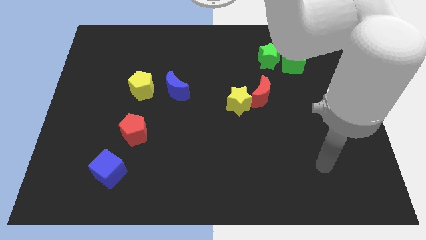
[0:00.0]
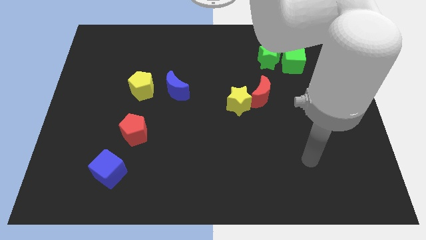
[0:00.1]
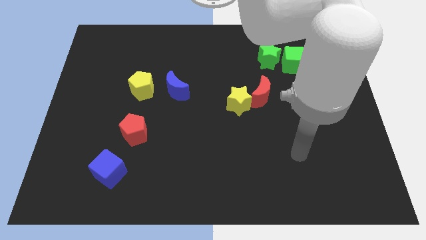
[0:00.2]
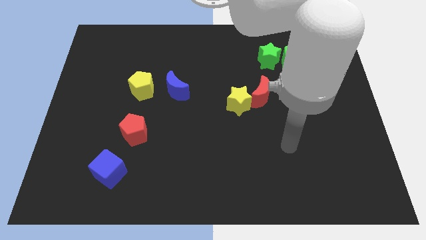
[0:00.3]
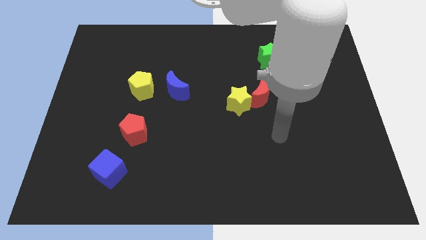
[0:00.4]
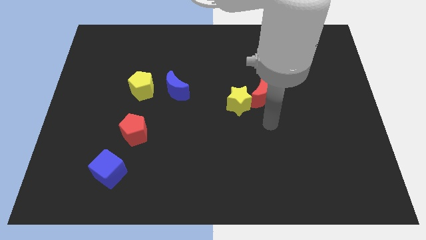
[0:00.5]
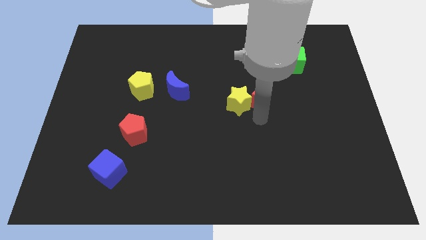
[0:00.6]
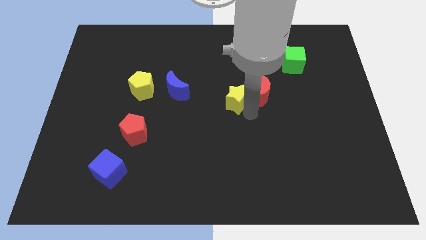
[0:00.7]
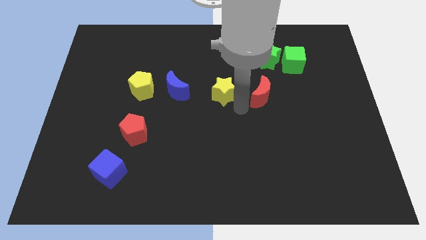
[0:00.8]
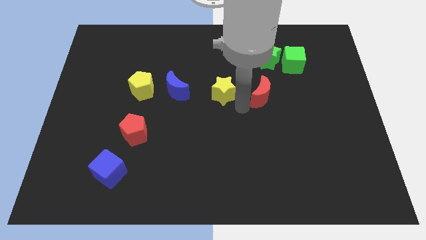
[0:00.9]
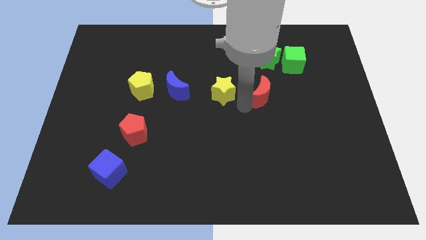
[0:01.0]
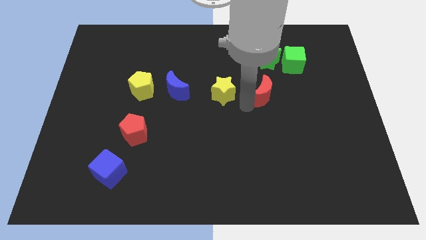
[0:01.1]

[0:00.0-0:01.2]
separate the red moon from the yellow star

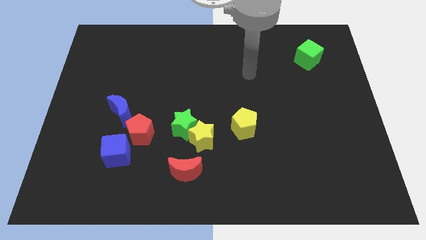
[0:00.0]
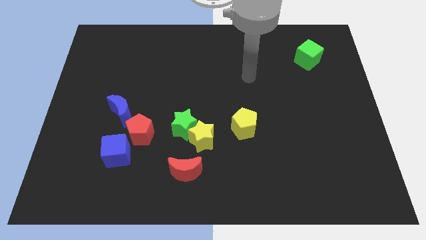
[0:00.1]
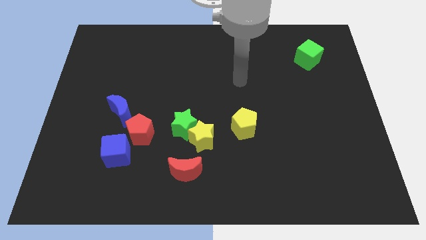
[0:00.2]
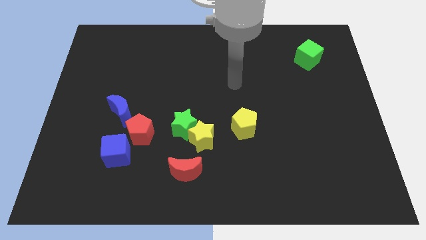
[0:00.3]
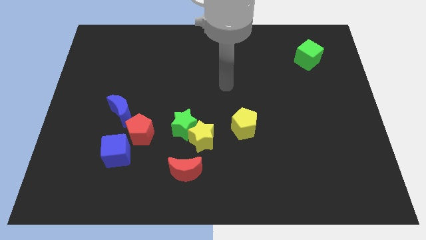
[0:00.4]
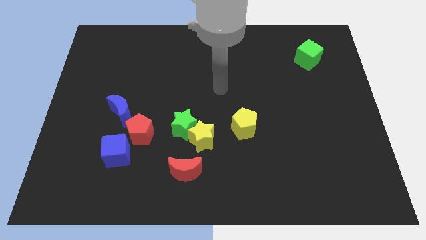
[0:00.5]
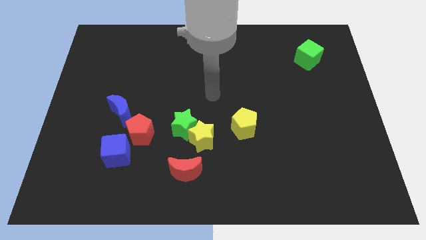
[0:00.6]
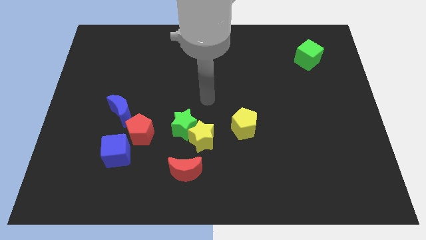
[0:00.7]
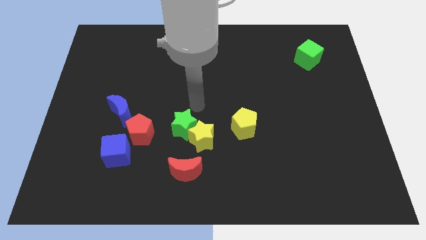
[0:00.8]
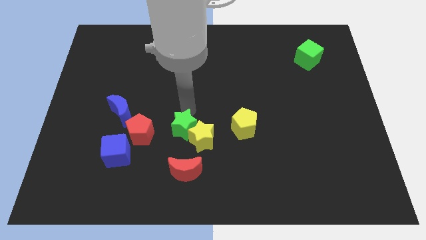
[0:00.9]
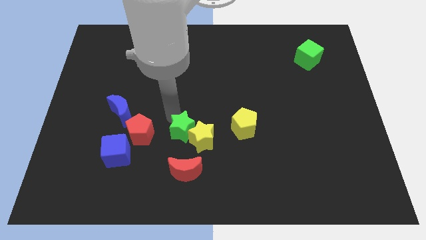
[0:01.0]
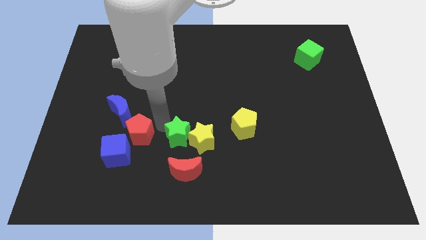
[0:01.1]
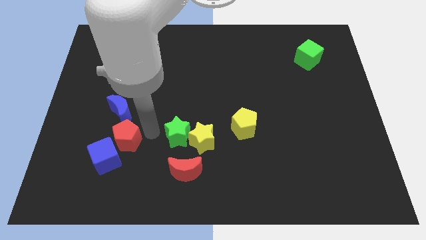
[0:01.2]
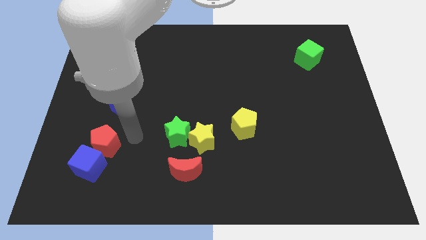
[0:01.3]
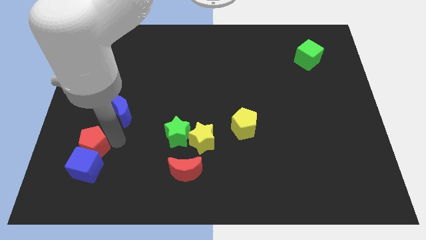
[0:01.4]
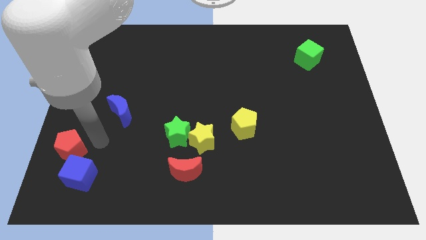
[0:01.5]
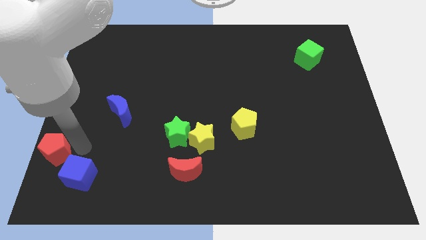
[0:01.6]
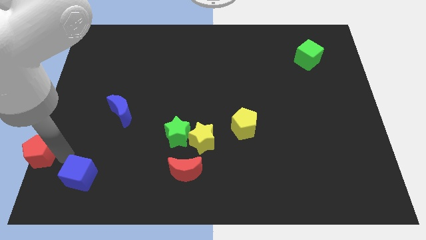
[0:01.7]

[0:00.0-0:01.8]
pull the blue cube apart from the red pentagon

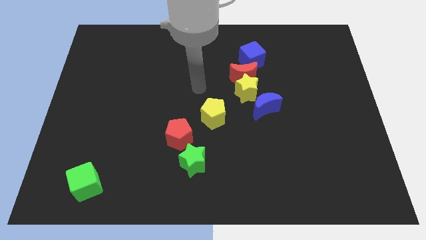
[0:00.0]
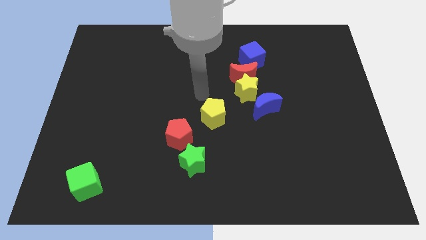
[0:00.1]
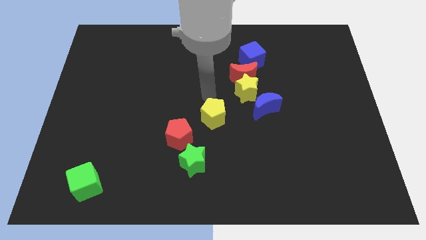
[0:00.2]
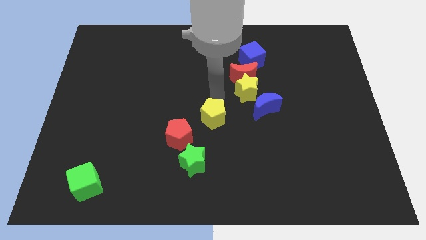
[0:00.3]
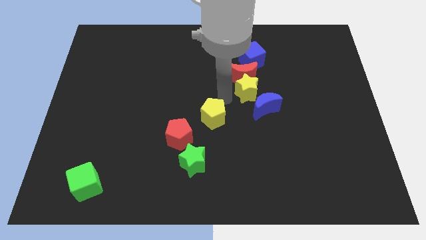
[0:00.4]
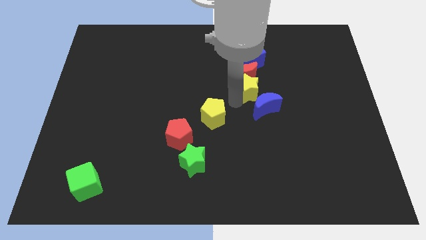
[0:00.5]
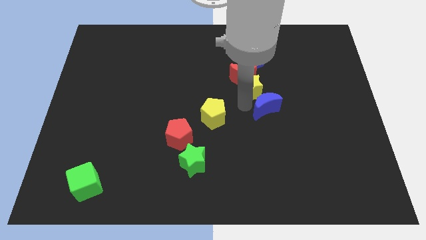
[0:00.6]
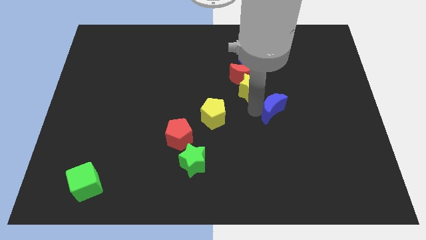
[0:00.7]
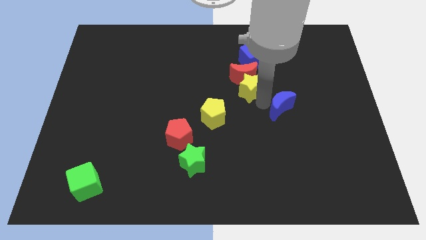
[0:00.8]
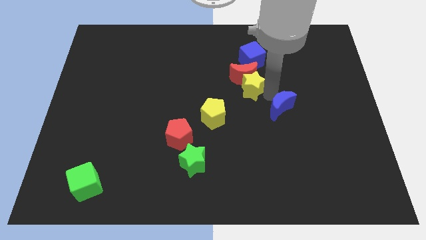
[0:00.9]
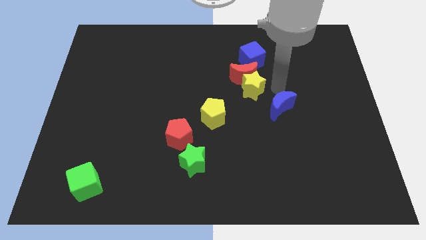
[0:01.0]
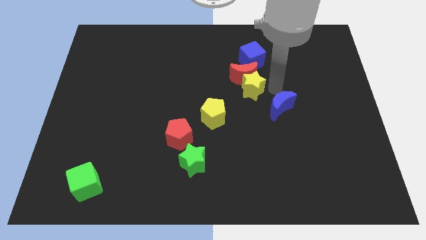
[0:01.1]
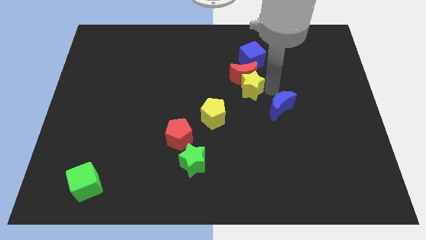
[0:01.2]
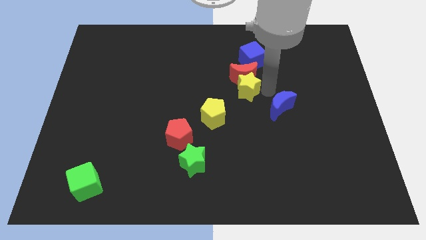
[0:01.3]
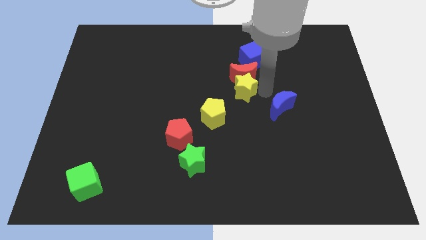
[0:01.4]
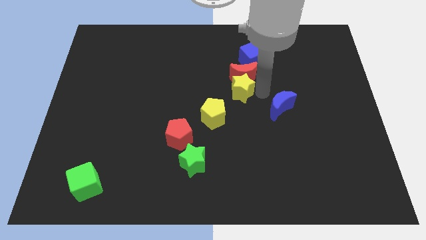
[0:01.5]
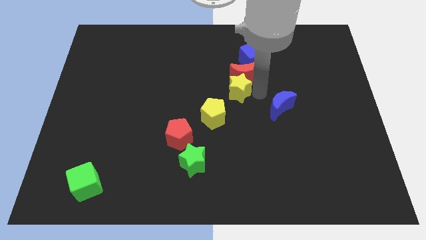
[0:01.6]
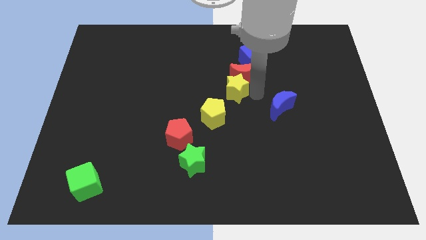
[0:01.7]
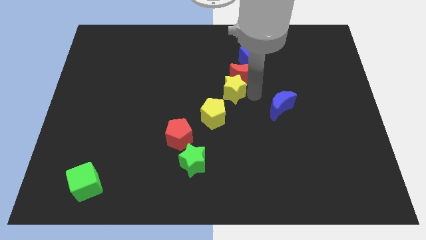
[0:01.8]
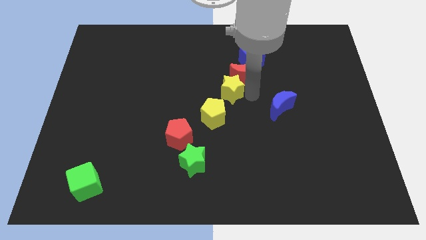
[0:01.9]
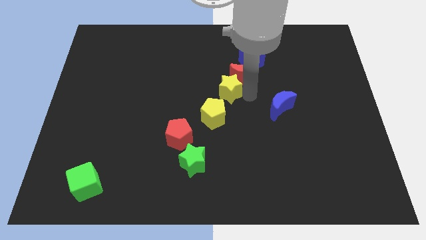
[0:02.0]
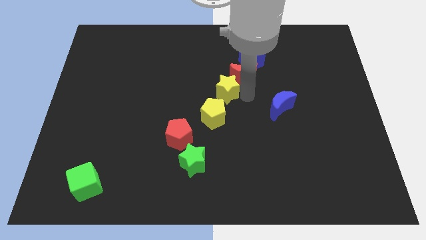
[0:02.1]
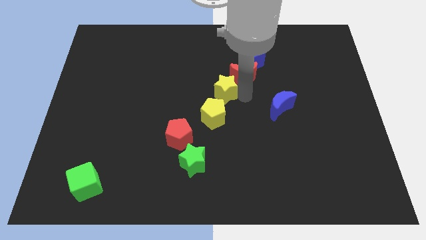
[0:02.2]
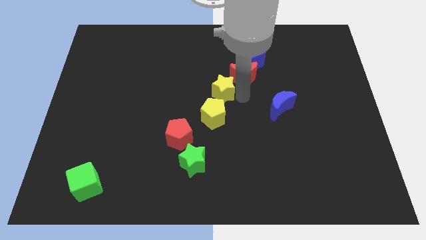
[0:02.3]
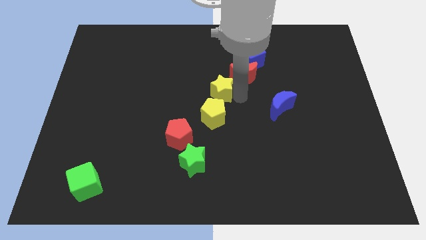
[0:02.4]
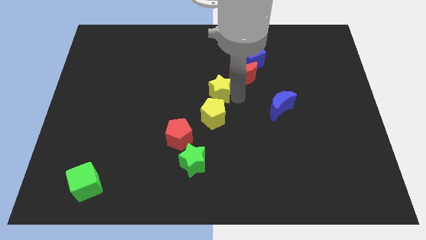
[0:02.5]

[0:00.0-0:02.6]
move the yellow star away from the red moon and blue moon

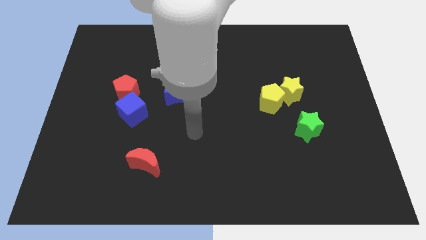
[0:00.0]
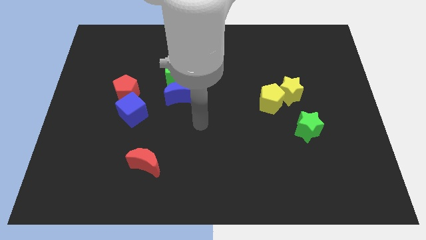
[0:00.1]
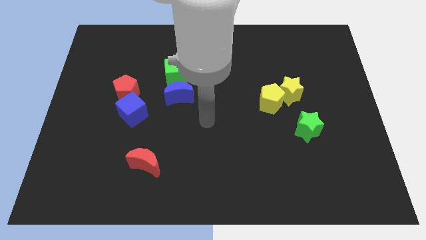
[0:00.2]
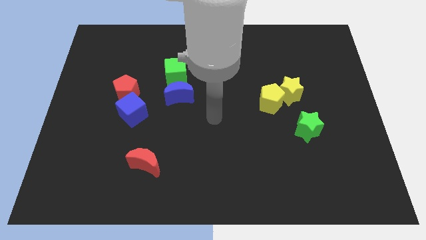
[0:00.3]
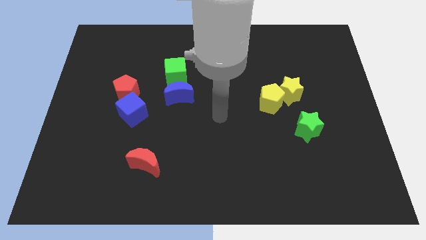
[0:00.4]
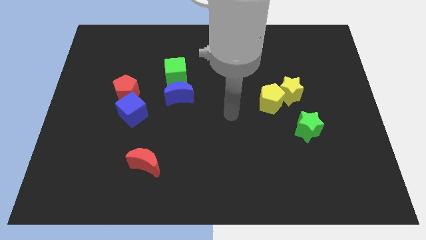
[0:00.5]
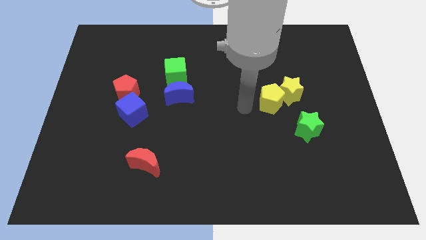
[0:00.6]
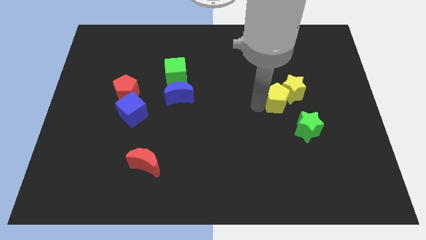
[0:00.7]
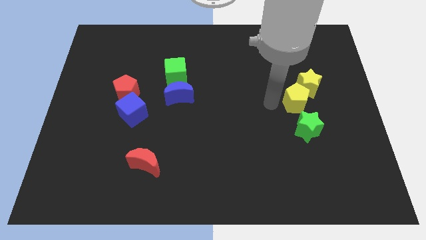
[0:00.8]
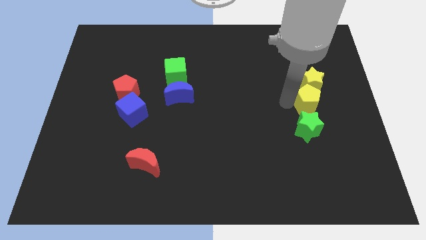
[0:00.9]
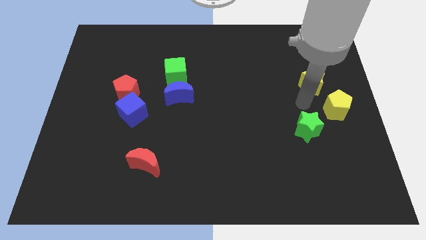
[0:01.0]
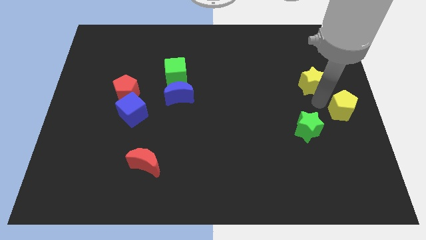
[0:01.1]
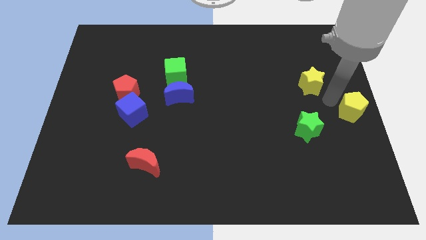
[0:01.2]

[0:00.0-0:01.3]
separate the yellow star from the yellow pentagon

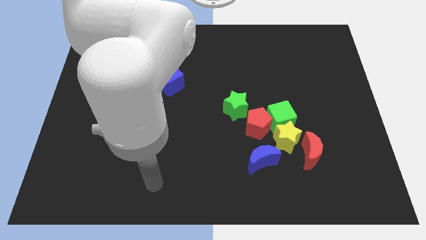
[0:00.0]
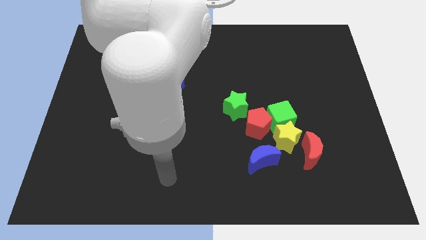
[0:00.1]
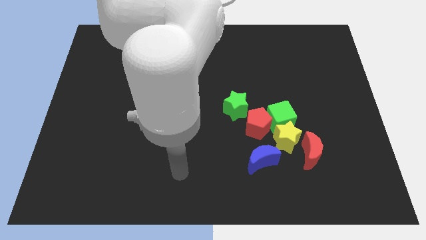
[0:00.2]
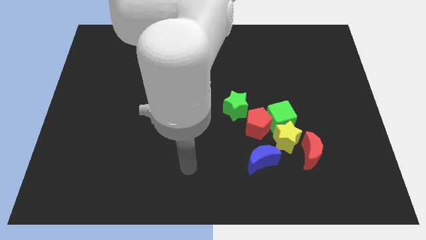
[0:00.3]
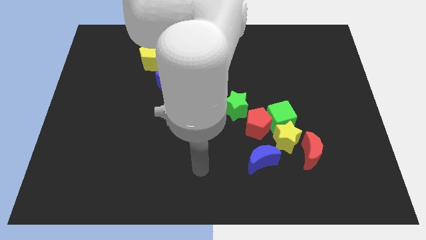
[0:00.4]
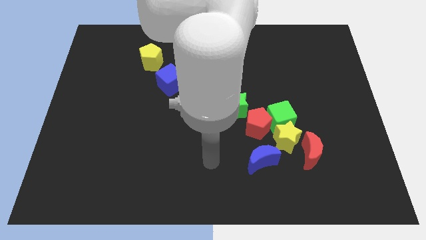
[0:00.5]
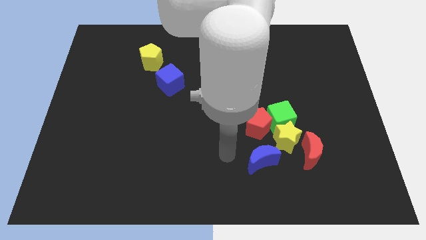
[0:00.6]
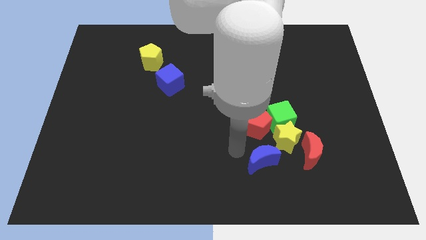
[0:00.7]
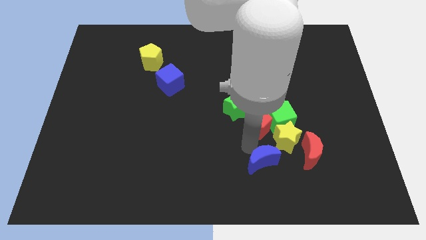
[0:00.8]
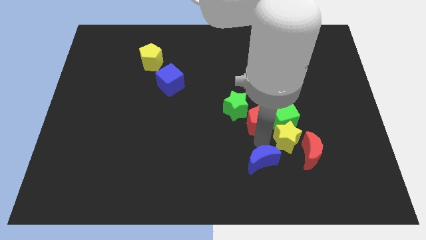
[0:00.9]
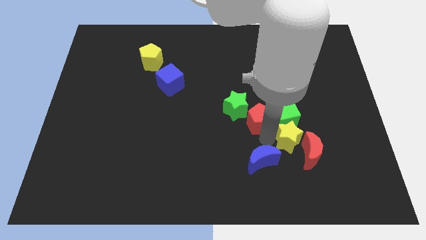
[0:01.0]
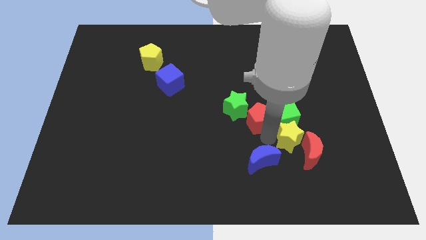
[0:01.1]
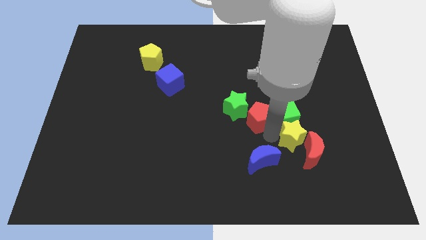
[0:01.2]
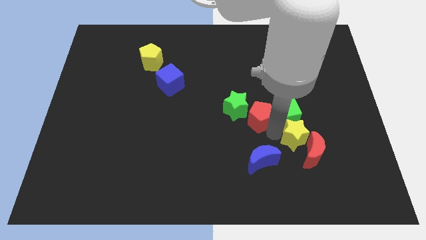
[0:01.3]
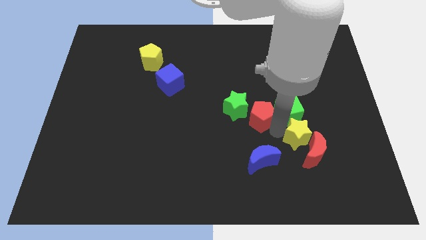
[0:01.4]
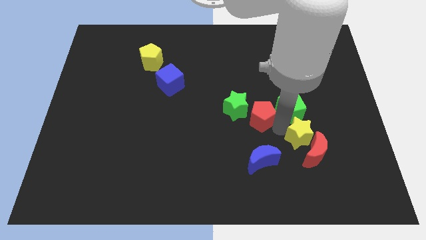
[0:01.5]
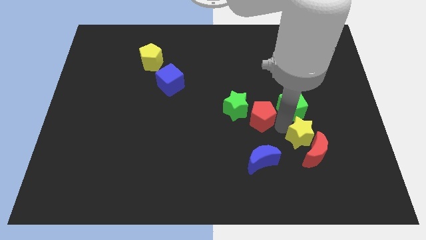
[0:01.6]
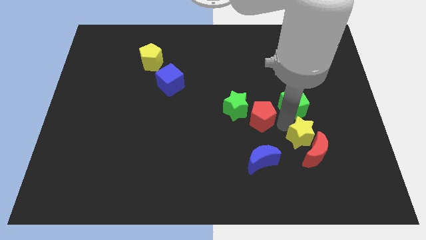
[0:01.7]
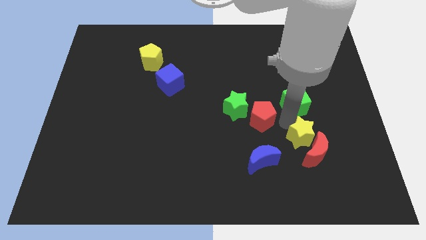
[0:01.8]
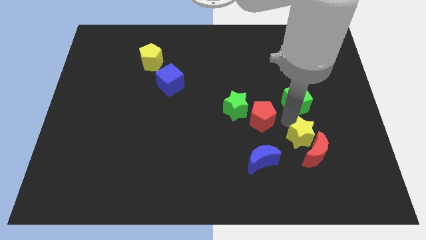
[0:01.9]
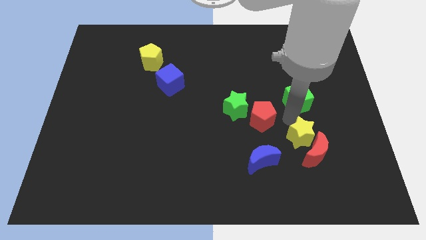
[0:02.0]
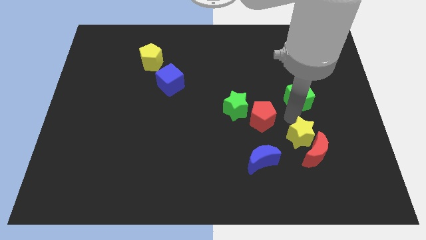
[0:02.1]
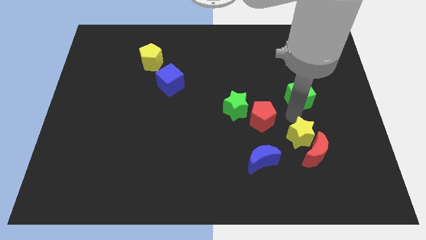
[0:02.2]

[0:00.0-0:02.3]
move the green cube away from the red pentagon and yellow star
